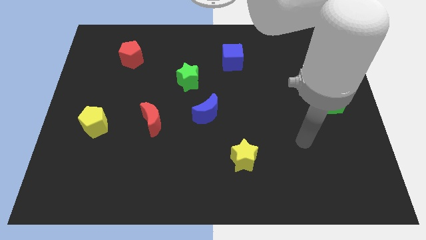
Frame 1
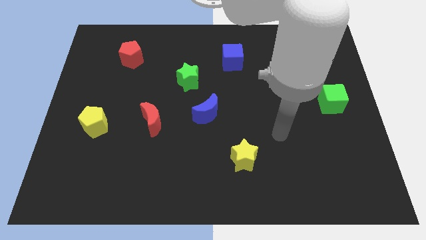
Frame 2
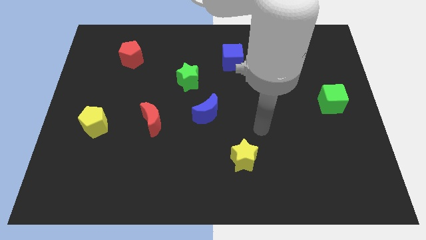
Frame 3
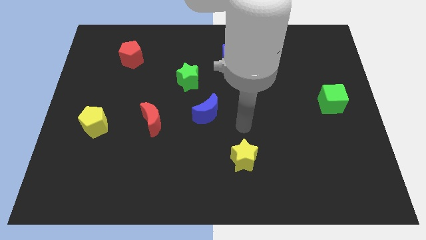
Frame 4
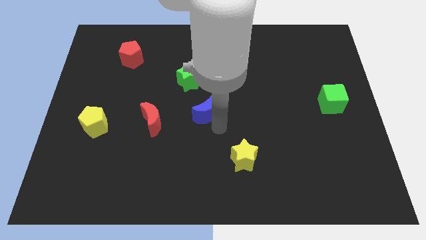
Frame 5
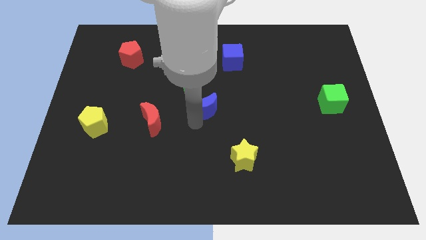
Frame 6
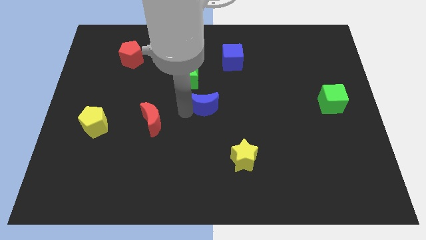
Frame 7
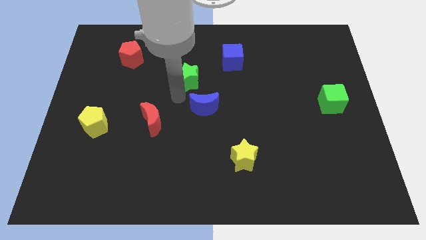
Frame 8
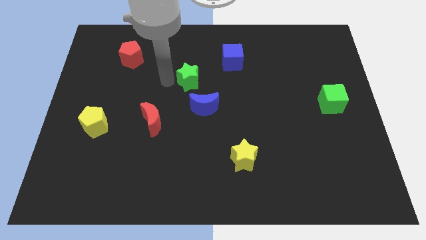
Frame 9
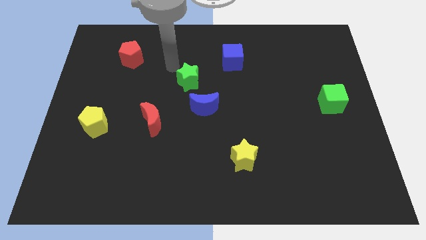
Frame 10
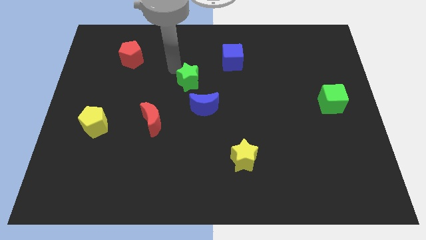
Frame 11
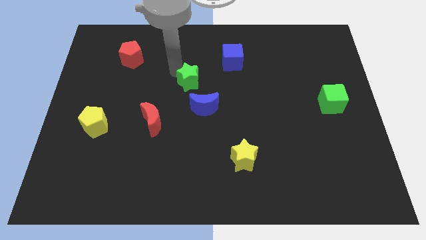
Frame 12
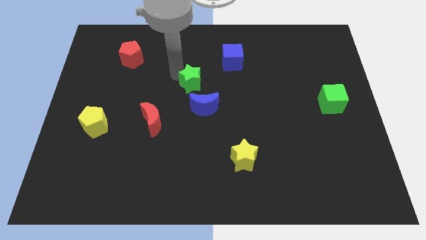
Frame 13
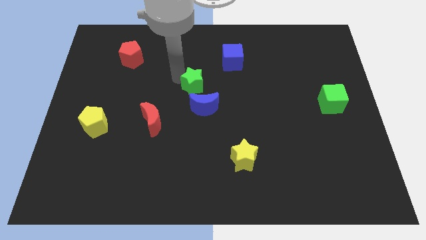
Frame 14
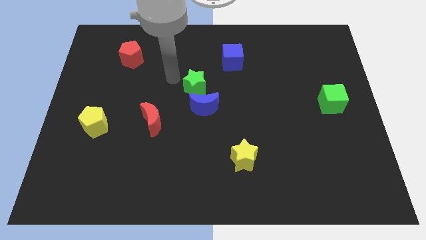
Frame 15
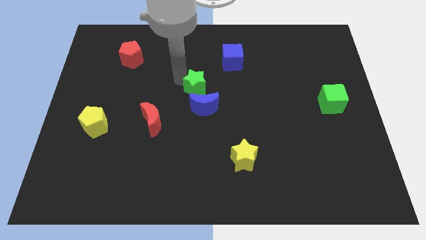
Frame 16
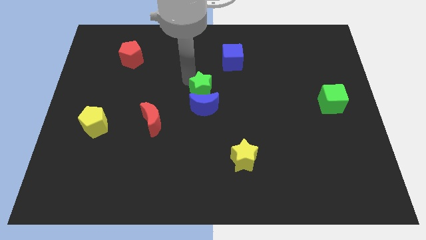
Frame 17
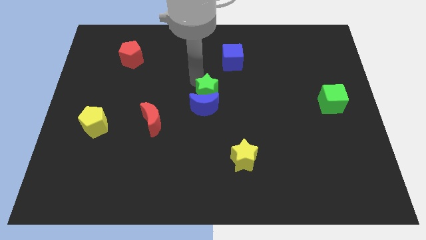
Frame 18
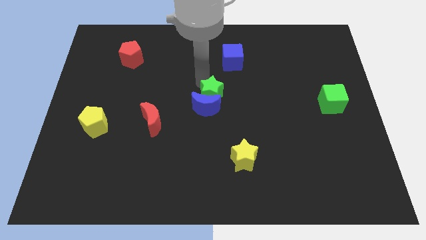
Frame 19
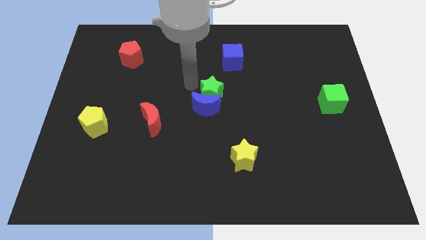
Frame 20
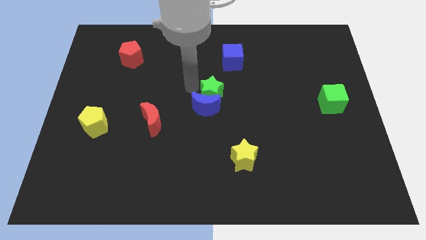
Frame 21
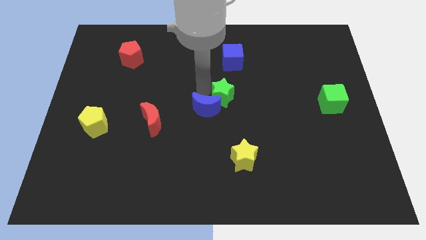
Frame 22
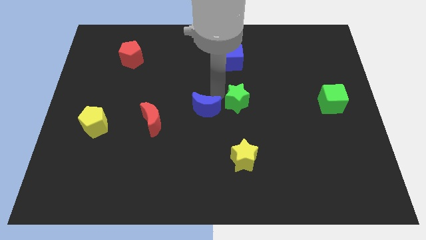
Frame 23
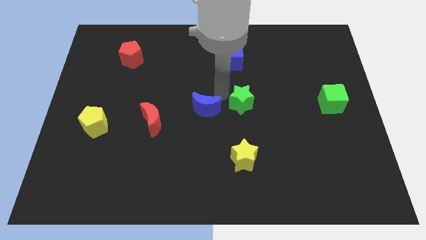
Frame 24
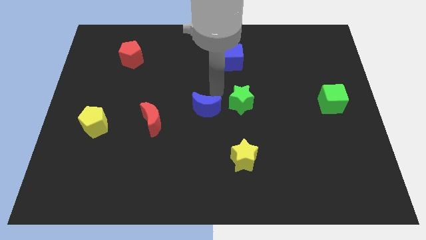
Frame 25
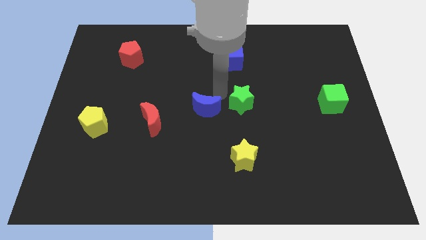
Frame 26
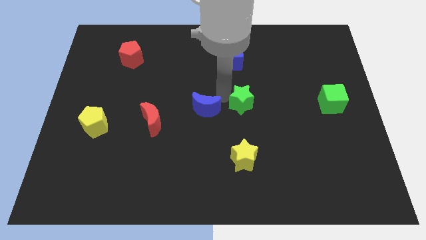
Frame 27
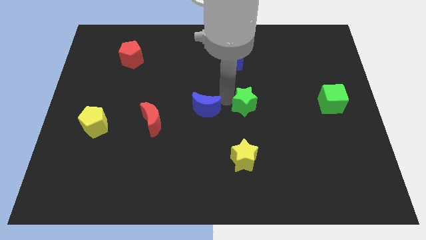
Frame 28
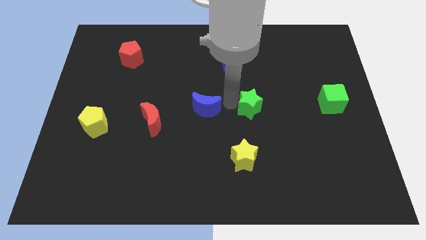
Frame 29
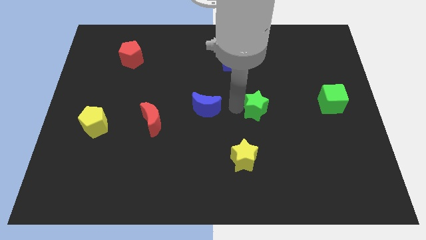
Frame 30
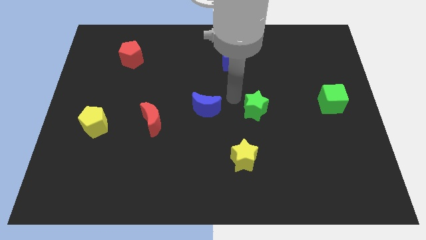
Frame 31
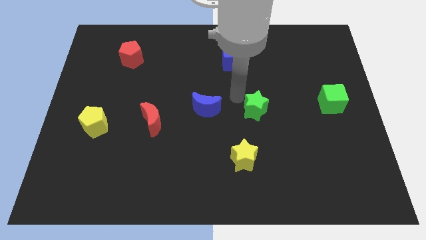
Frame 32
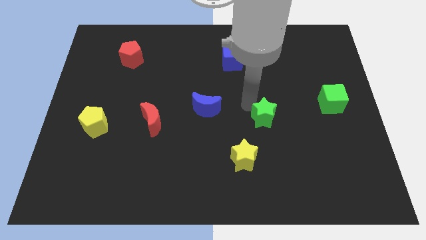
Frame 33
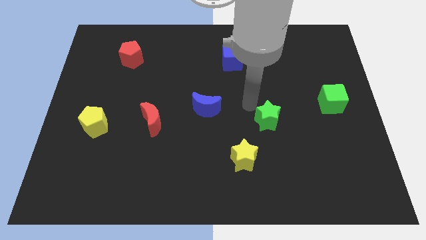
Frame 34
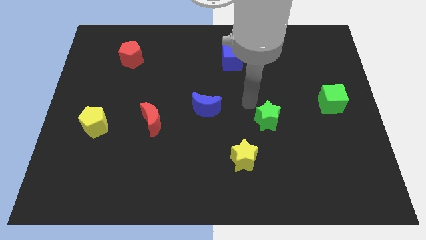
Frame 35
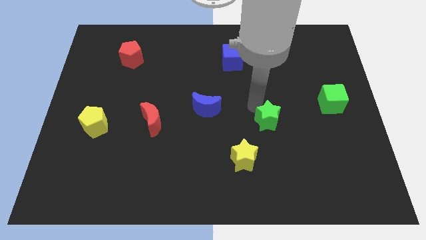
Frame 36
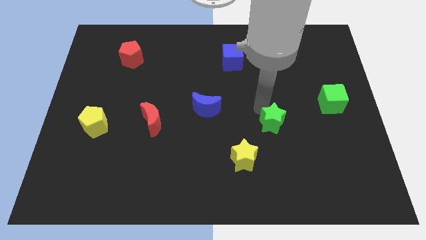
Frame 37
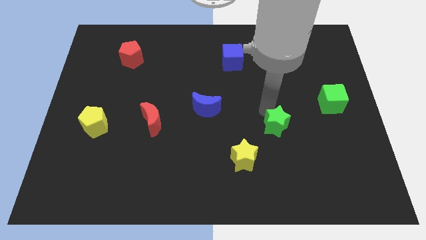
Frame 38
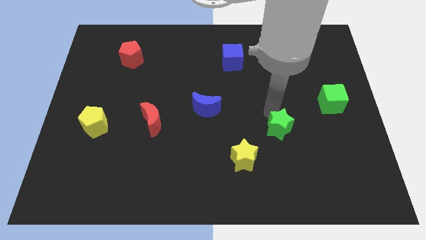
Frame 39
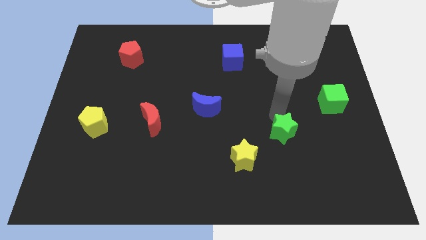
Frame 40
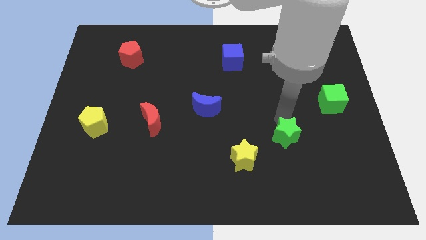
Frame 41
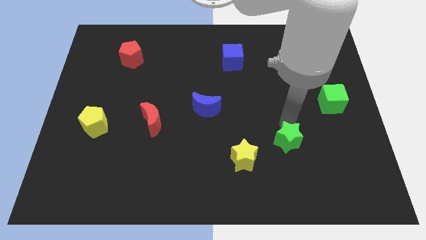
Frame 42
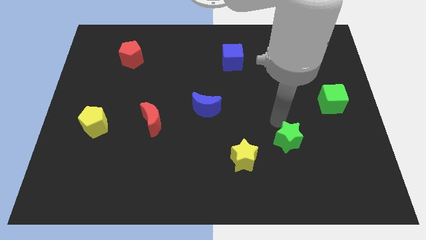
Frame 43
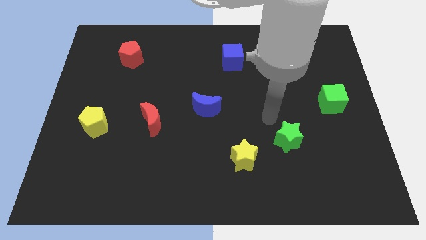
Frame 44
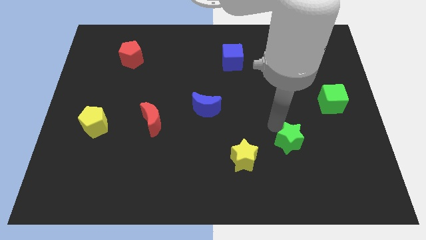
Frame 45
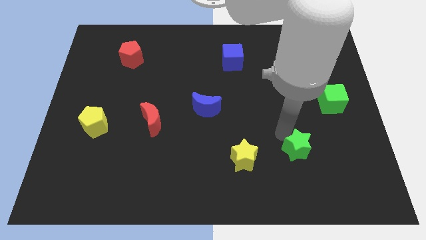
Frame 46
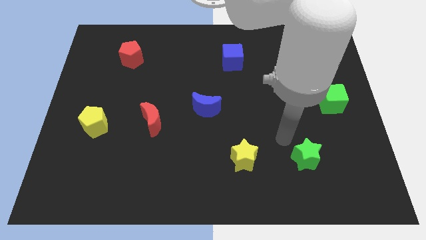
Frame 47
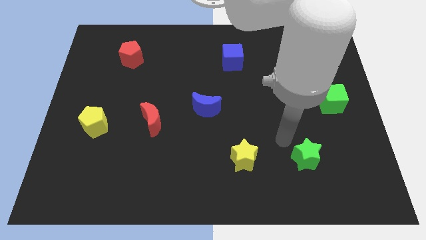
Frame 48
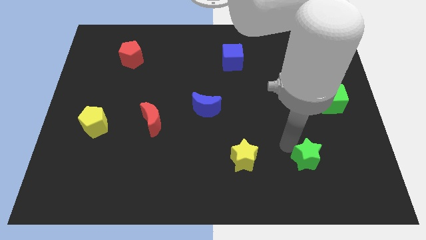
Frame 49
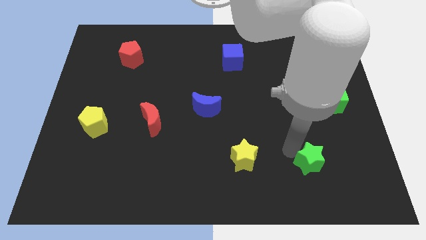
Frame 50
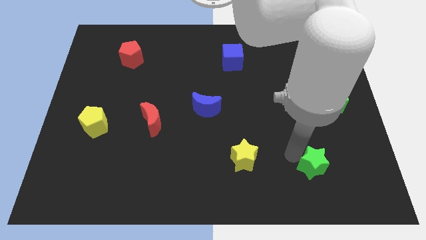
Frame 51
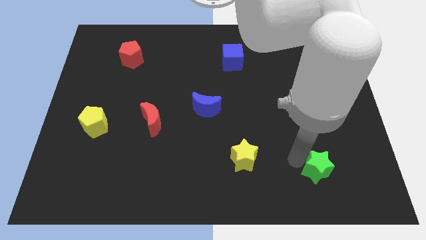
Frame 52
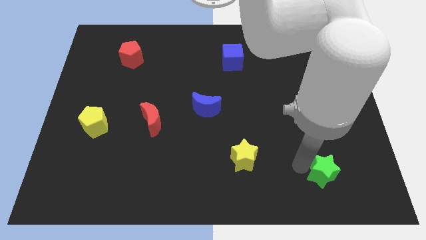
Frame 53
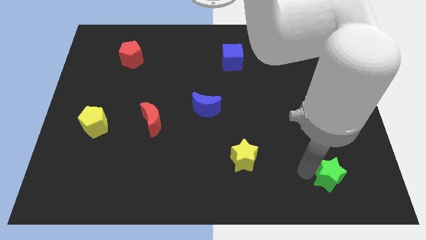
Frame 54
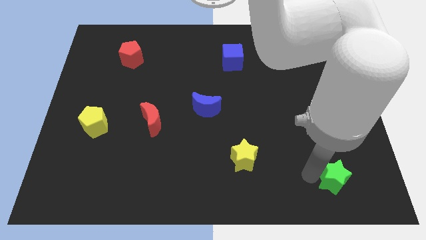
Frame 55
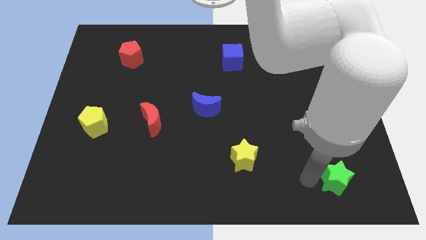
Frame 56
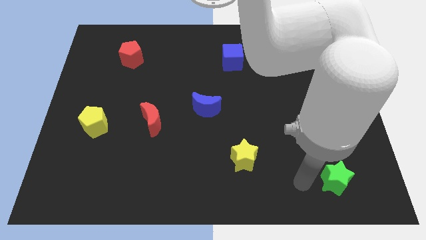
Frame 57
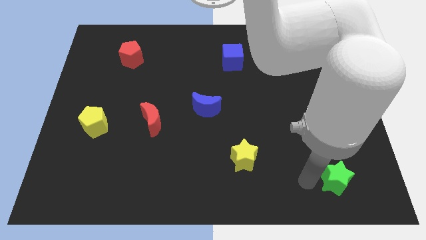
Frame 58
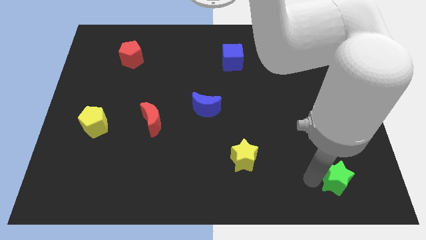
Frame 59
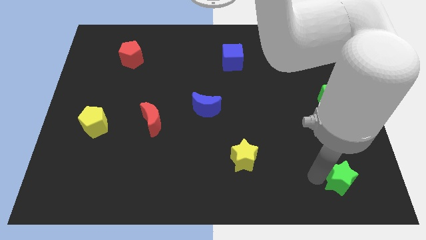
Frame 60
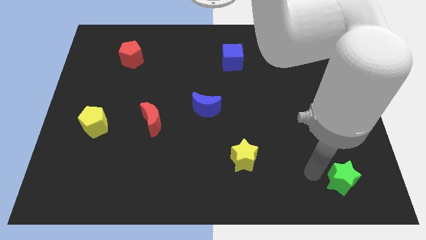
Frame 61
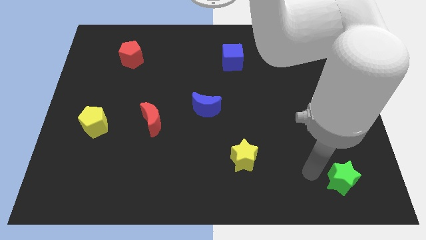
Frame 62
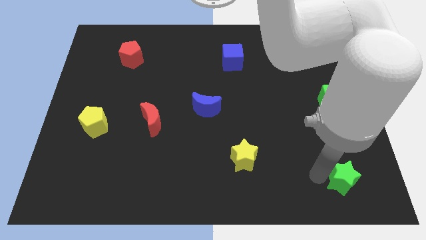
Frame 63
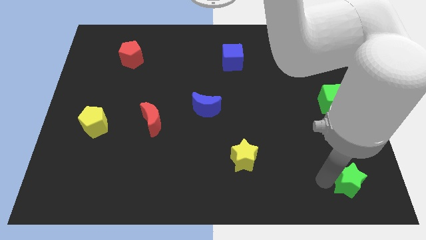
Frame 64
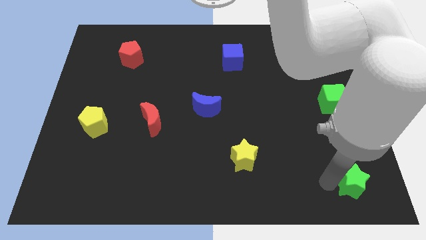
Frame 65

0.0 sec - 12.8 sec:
put the green star to the lower right corner
